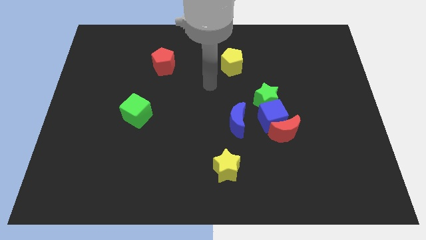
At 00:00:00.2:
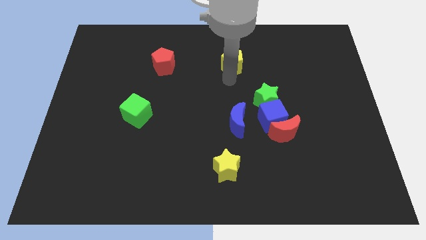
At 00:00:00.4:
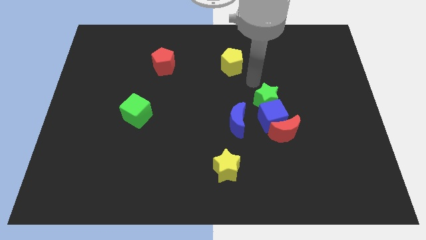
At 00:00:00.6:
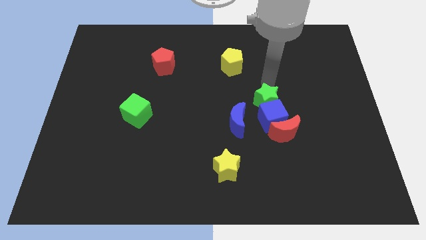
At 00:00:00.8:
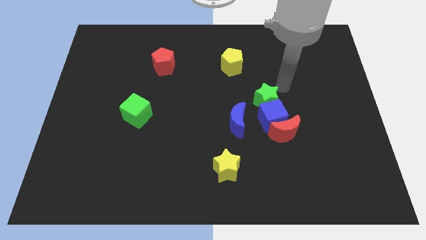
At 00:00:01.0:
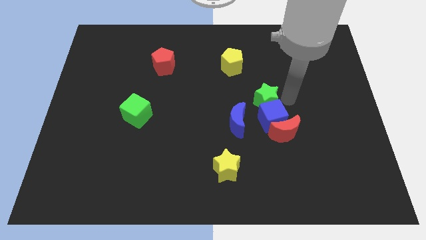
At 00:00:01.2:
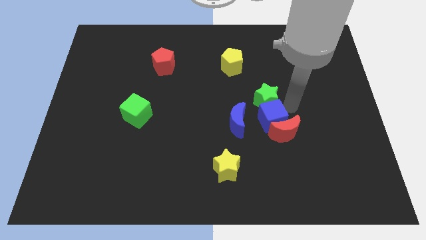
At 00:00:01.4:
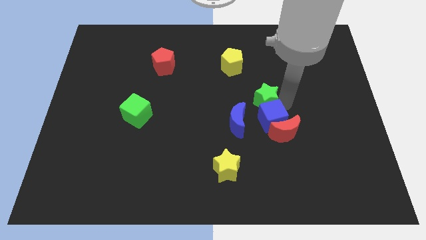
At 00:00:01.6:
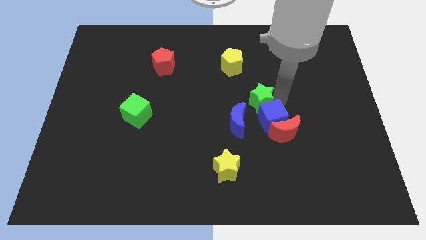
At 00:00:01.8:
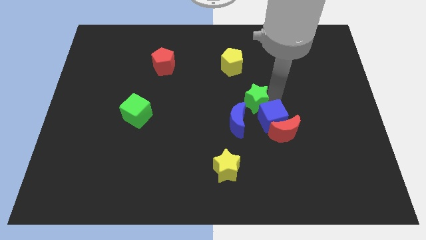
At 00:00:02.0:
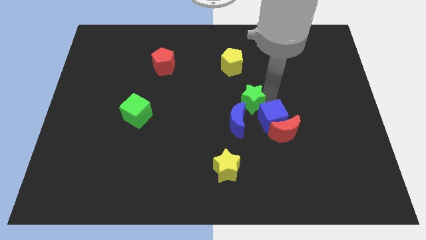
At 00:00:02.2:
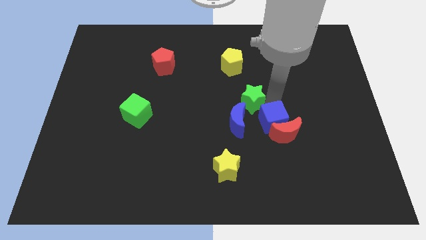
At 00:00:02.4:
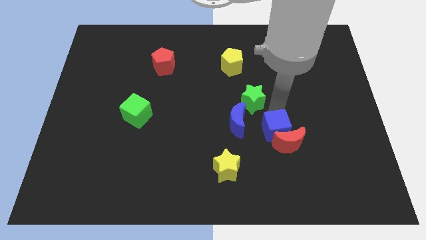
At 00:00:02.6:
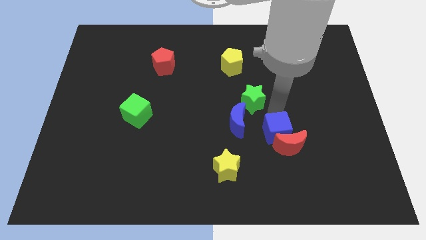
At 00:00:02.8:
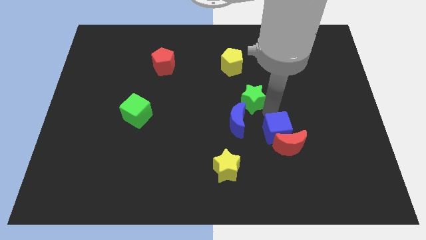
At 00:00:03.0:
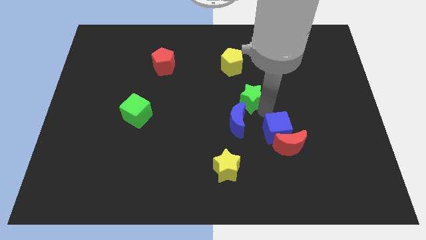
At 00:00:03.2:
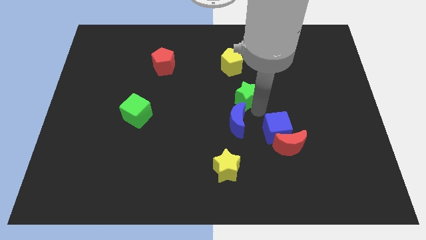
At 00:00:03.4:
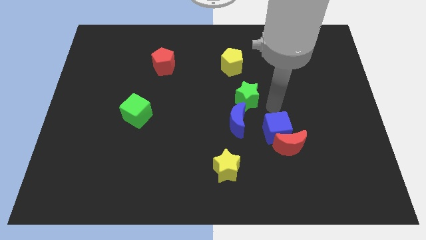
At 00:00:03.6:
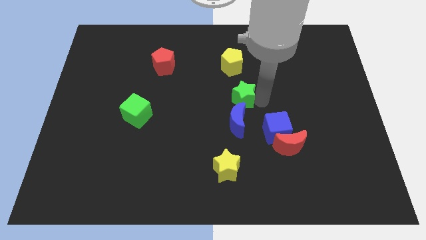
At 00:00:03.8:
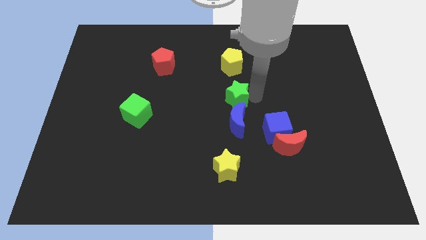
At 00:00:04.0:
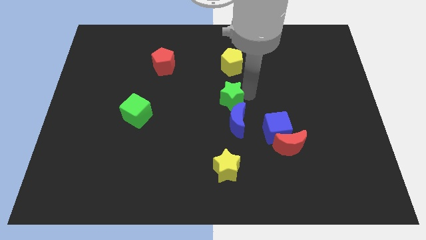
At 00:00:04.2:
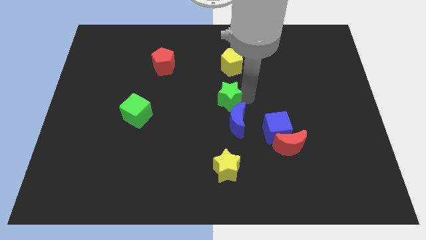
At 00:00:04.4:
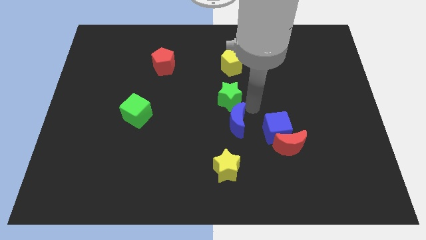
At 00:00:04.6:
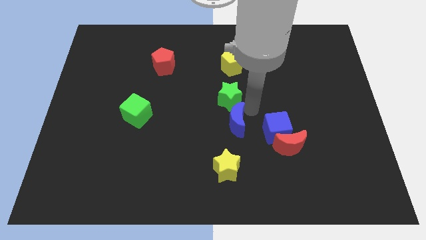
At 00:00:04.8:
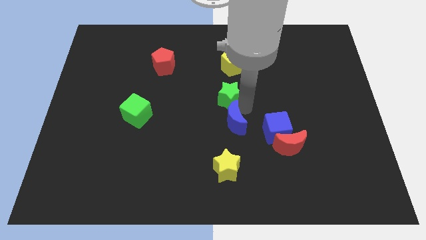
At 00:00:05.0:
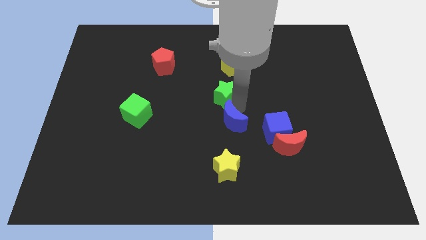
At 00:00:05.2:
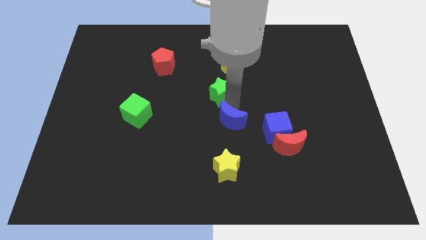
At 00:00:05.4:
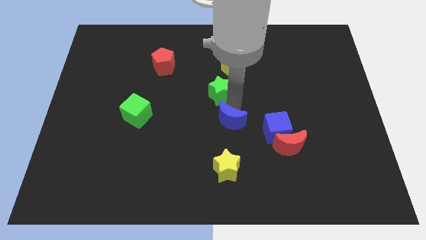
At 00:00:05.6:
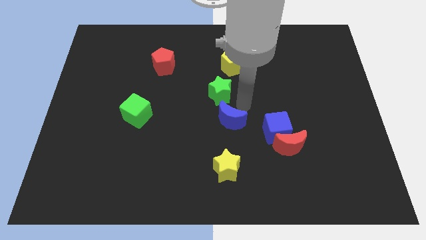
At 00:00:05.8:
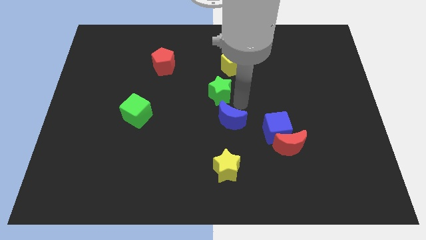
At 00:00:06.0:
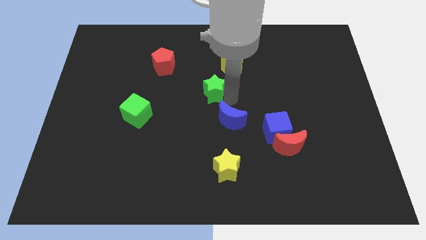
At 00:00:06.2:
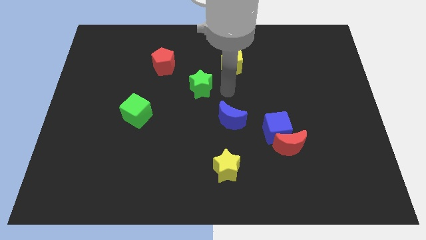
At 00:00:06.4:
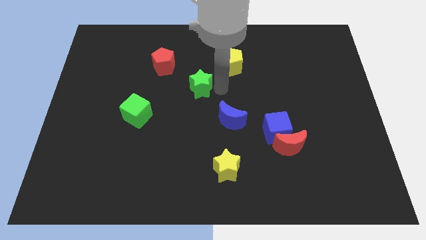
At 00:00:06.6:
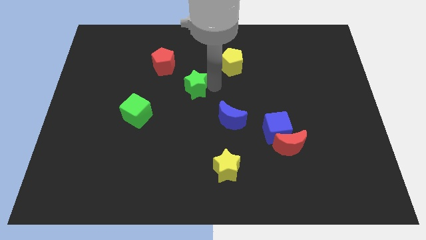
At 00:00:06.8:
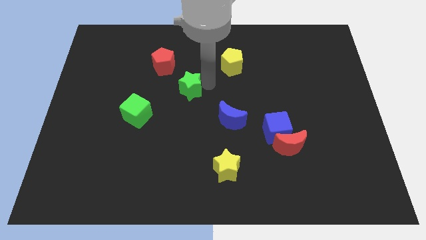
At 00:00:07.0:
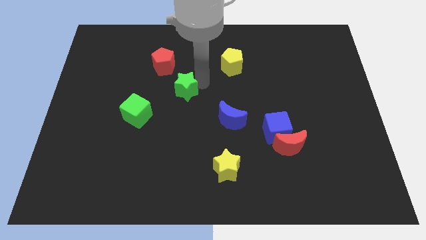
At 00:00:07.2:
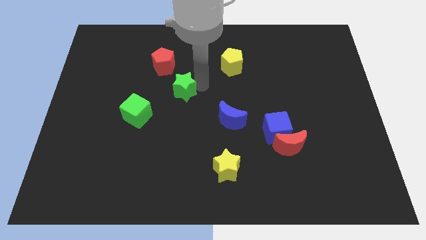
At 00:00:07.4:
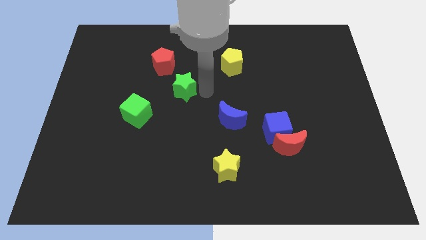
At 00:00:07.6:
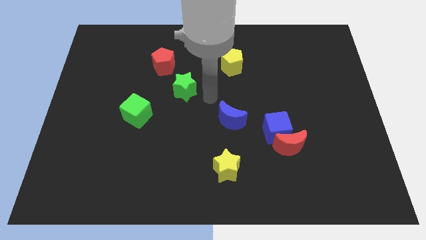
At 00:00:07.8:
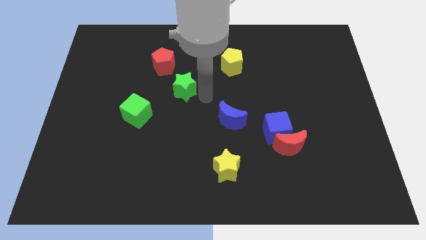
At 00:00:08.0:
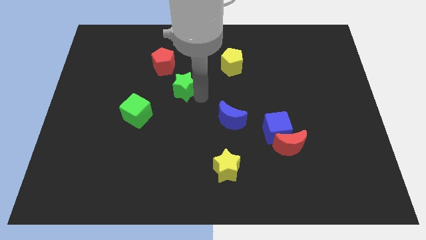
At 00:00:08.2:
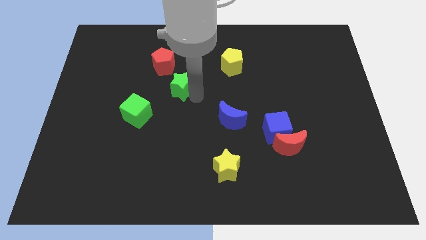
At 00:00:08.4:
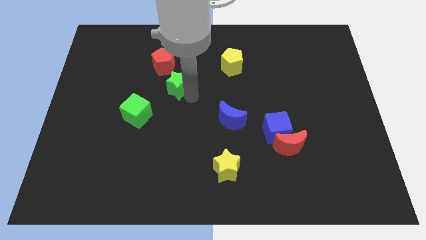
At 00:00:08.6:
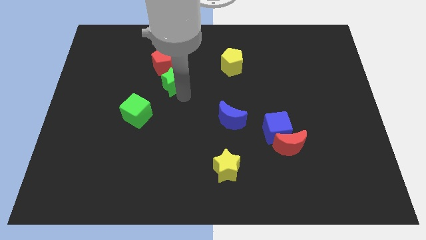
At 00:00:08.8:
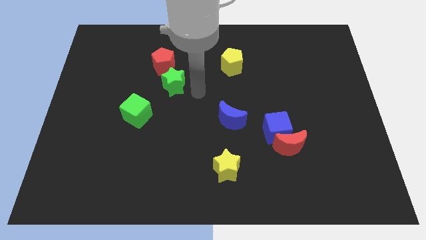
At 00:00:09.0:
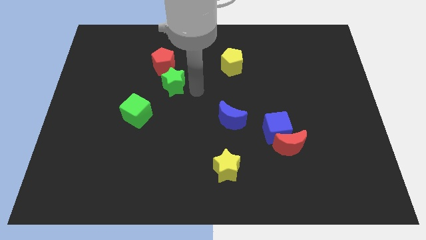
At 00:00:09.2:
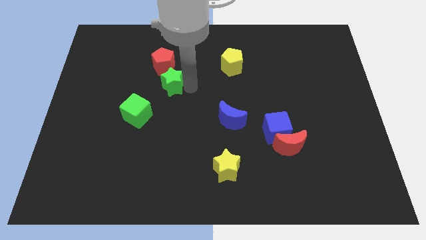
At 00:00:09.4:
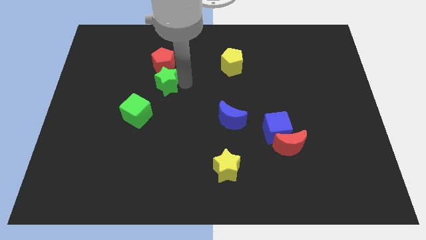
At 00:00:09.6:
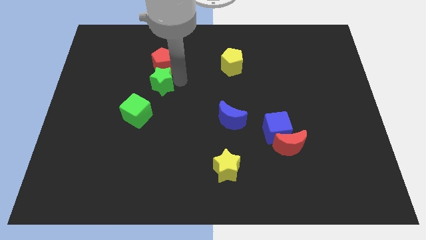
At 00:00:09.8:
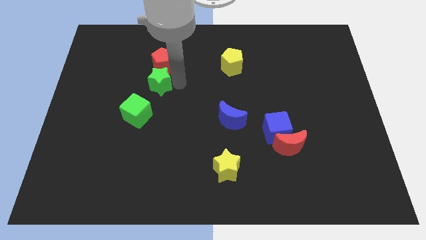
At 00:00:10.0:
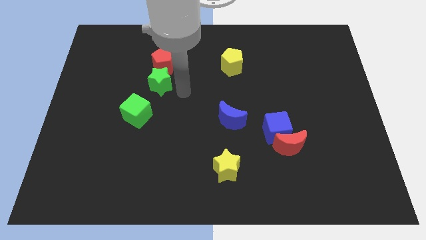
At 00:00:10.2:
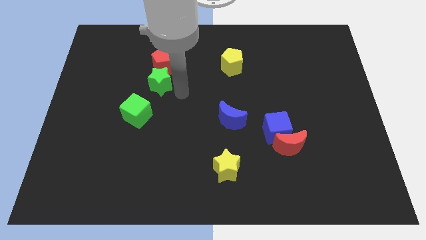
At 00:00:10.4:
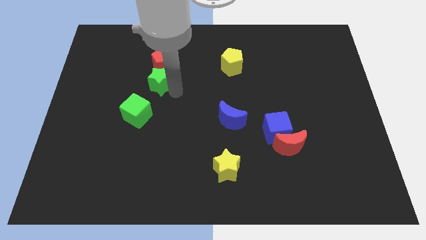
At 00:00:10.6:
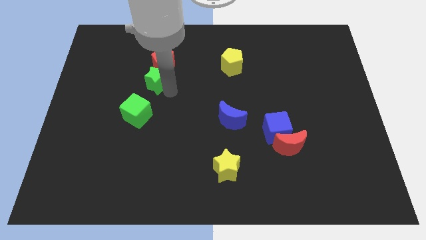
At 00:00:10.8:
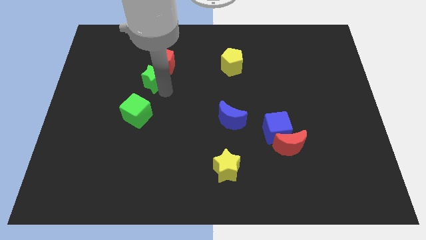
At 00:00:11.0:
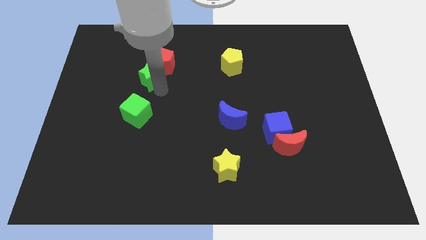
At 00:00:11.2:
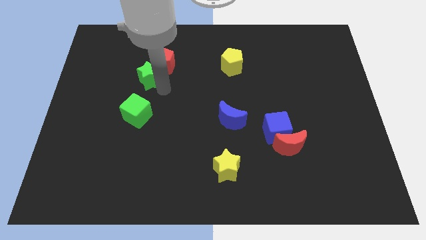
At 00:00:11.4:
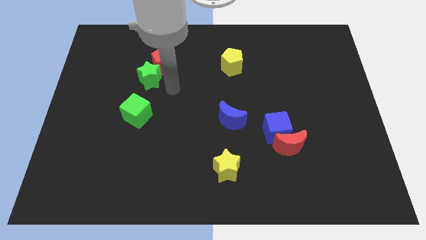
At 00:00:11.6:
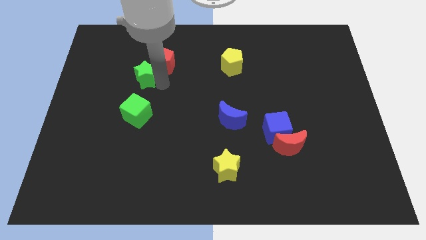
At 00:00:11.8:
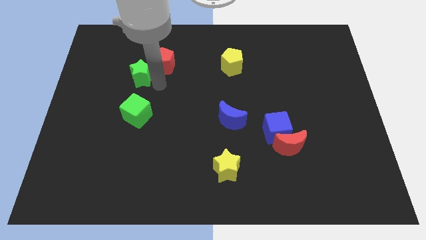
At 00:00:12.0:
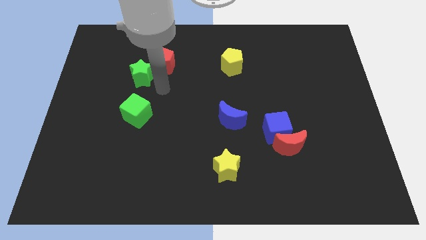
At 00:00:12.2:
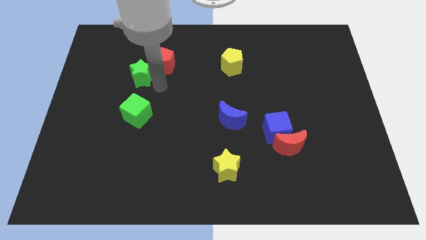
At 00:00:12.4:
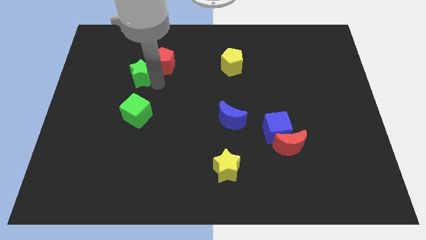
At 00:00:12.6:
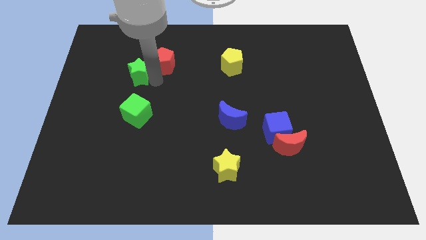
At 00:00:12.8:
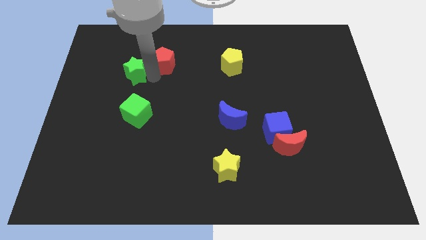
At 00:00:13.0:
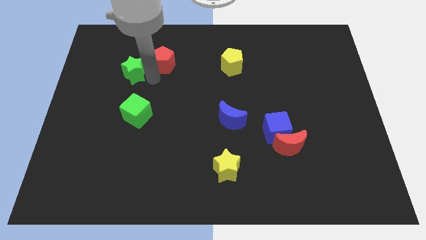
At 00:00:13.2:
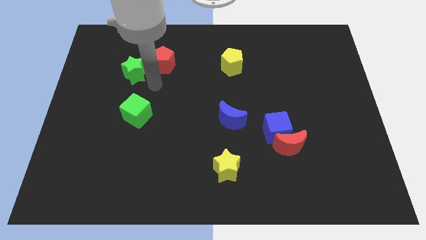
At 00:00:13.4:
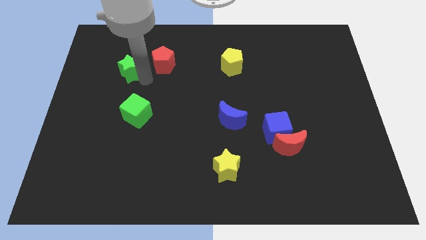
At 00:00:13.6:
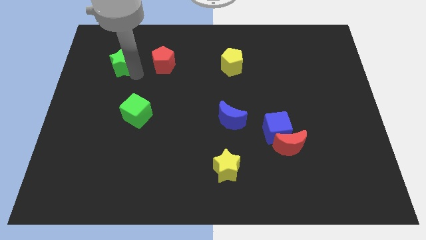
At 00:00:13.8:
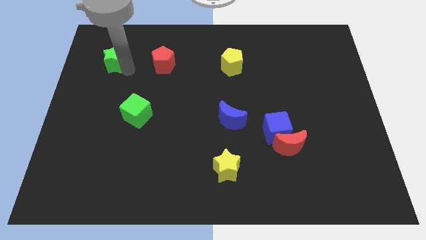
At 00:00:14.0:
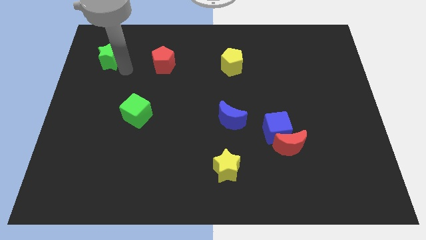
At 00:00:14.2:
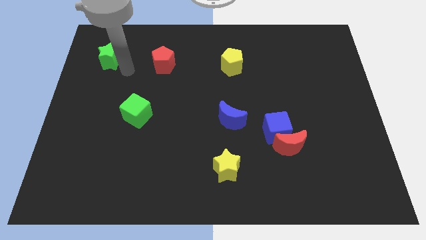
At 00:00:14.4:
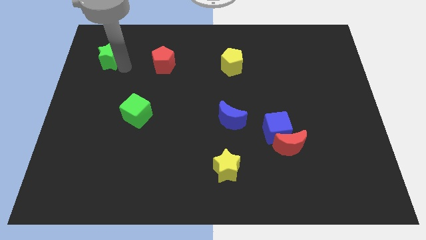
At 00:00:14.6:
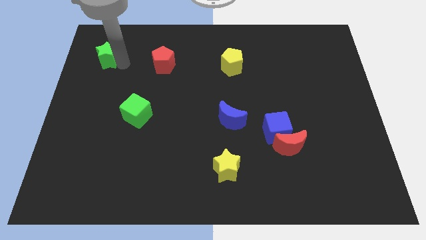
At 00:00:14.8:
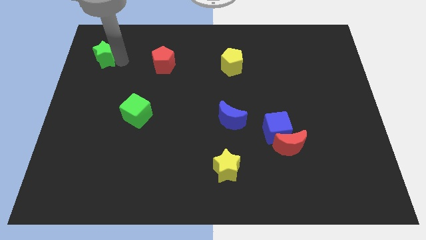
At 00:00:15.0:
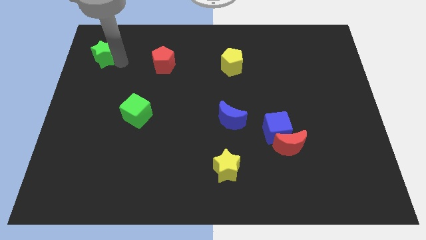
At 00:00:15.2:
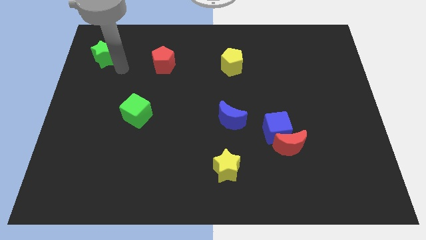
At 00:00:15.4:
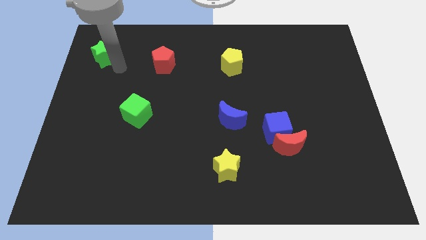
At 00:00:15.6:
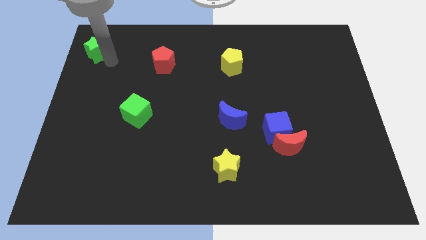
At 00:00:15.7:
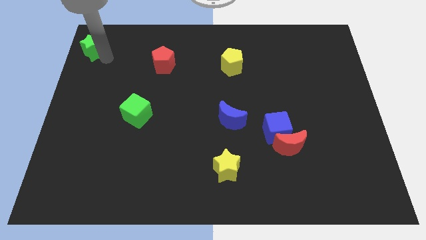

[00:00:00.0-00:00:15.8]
put the green star to the top left
